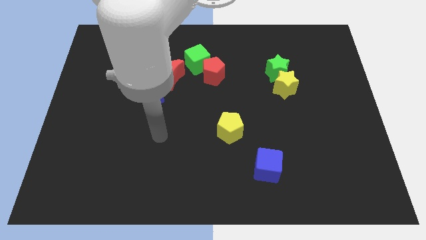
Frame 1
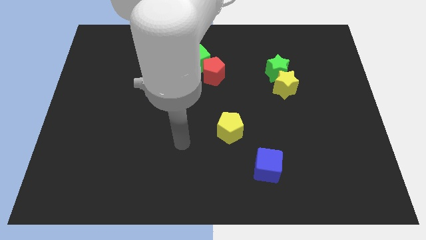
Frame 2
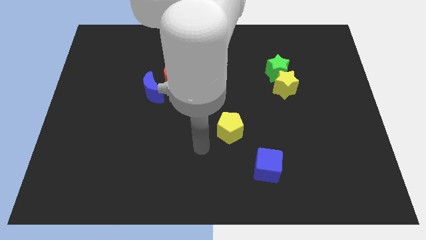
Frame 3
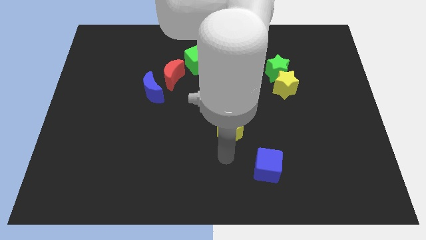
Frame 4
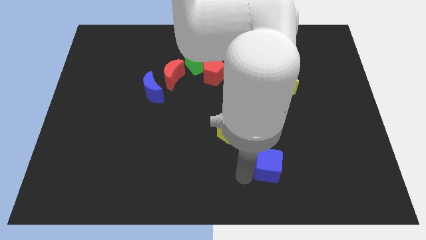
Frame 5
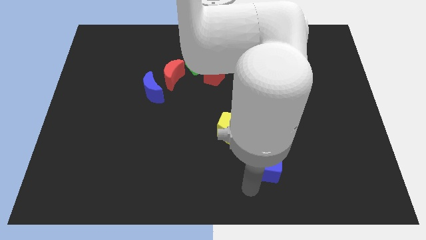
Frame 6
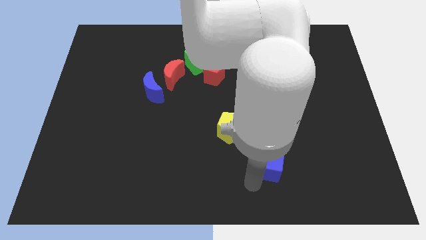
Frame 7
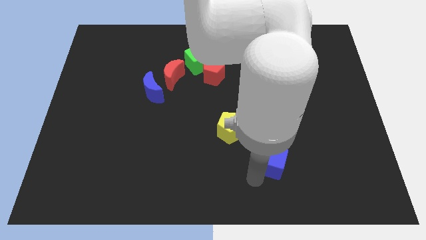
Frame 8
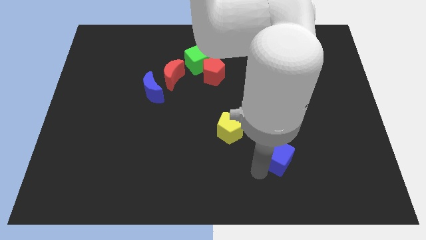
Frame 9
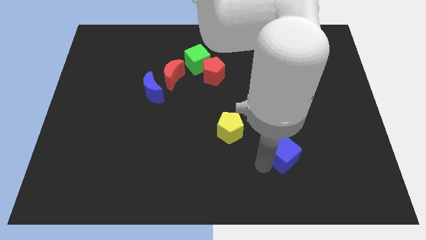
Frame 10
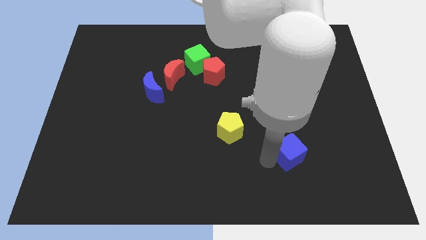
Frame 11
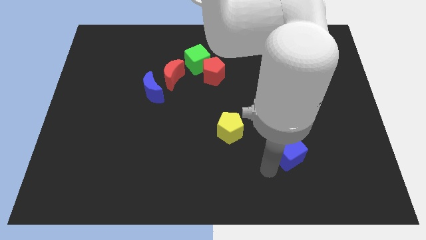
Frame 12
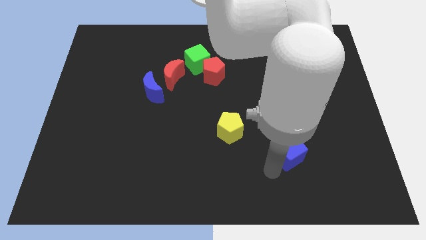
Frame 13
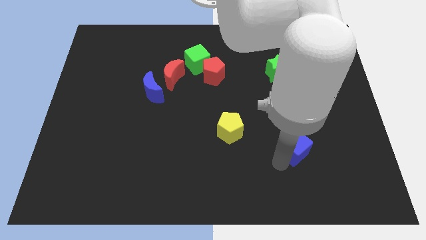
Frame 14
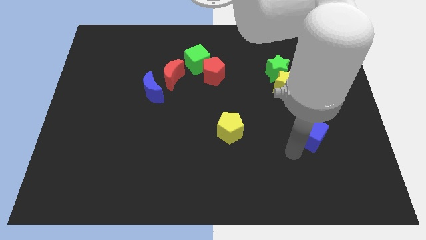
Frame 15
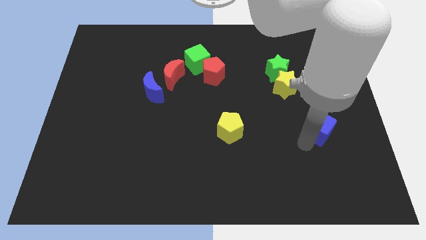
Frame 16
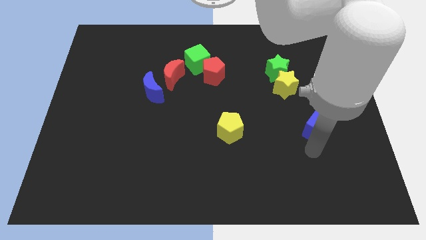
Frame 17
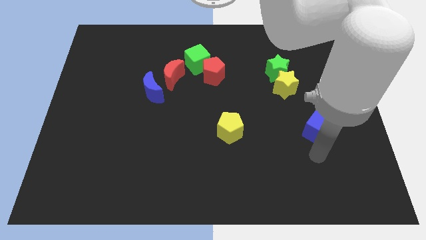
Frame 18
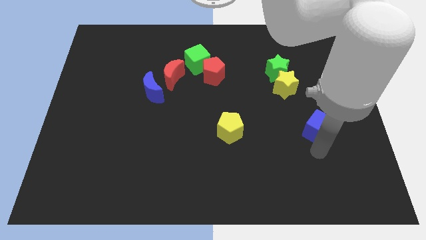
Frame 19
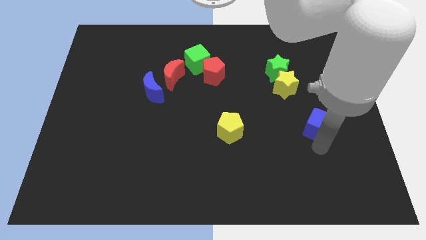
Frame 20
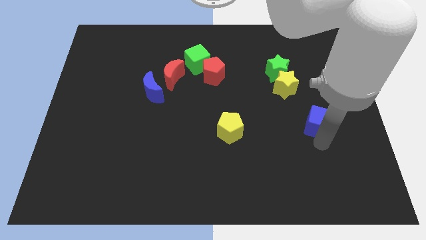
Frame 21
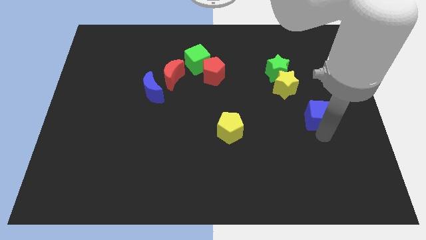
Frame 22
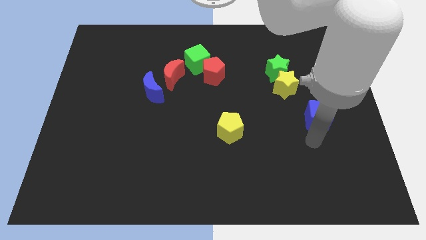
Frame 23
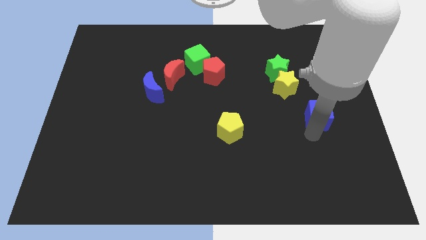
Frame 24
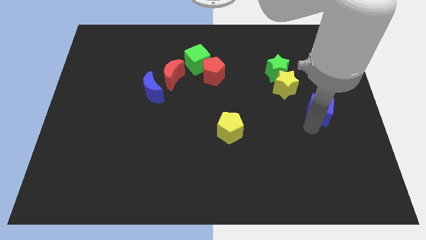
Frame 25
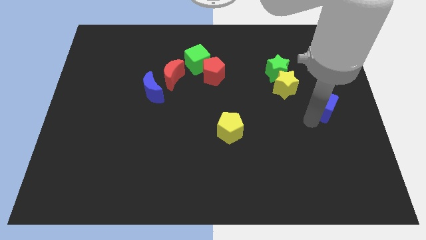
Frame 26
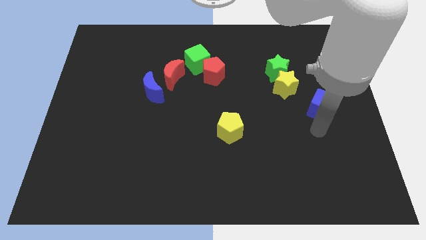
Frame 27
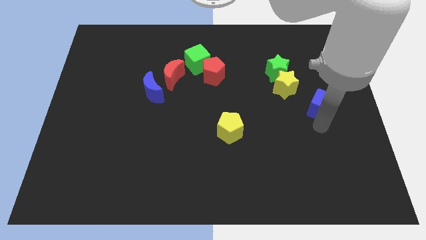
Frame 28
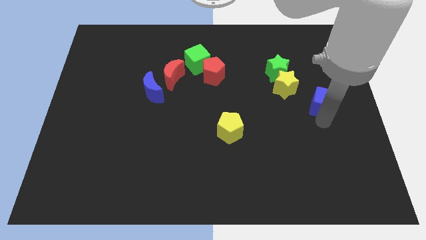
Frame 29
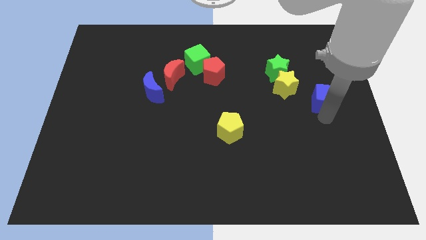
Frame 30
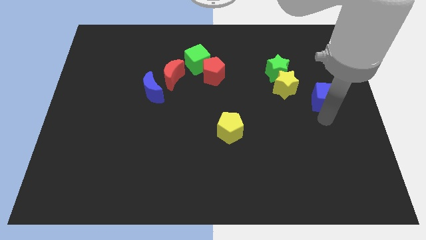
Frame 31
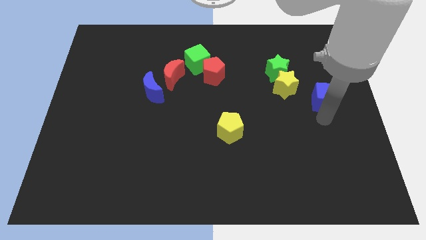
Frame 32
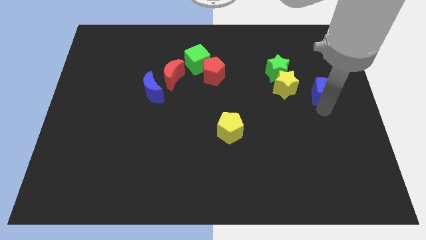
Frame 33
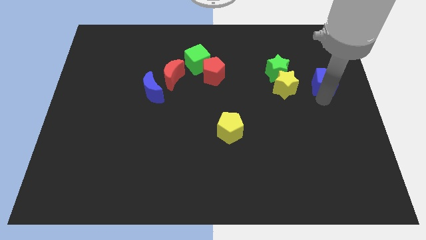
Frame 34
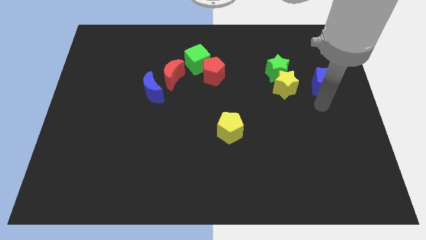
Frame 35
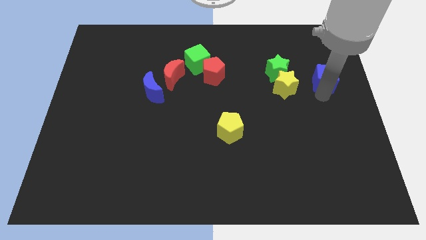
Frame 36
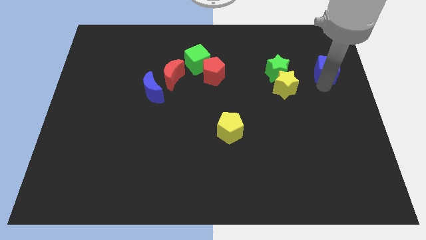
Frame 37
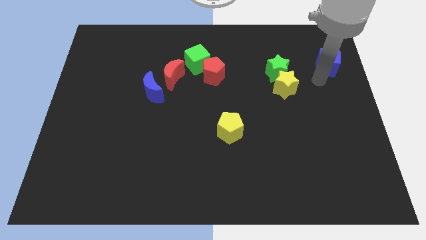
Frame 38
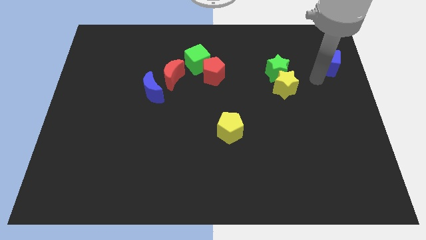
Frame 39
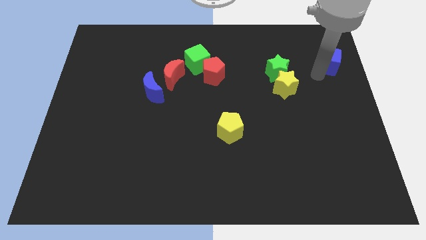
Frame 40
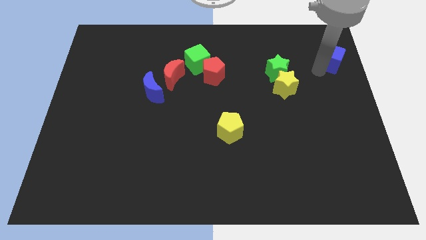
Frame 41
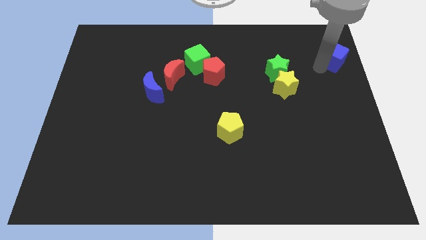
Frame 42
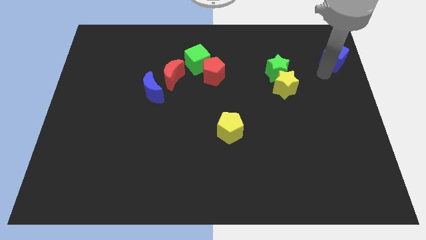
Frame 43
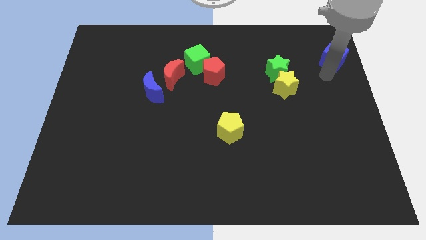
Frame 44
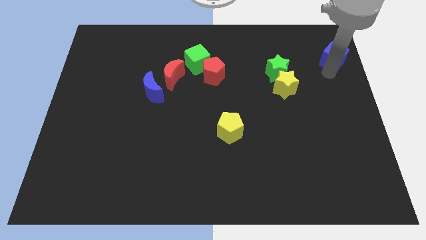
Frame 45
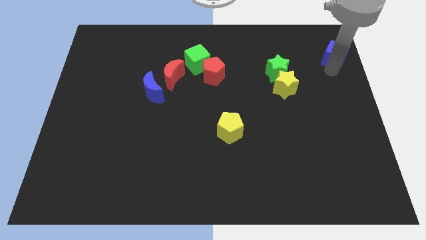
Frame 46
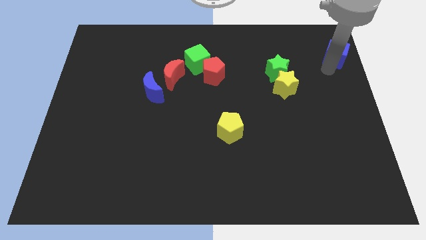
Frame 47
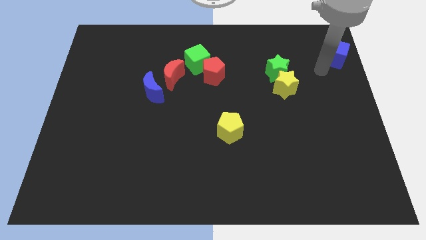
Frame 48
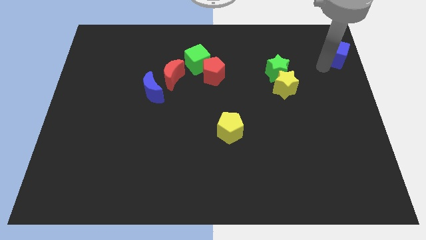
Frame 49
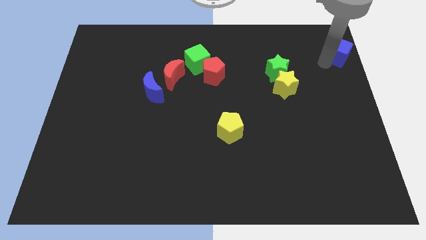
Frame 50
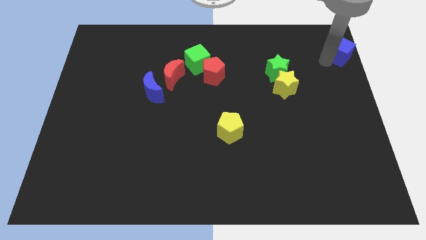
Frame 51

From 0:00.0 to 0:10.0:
slide the blue cube to the upper right corner

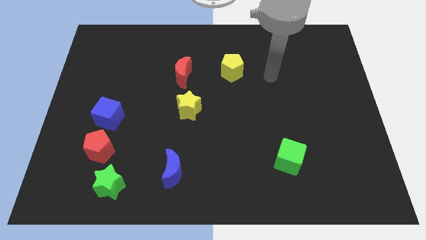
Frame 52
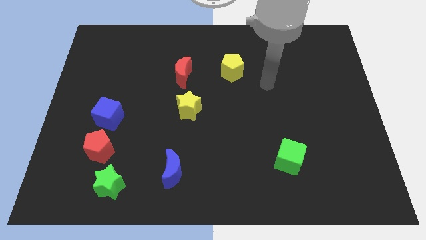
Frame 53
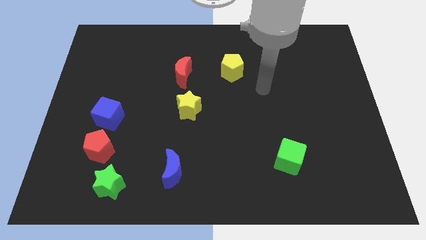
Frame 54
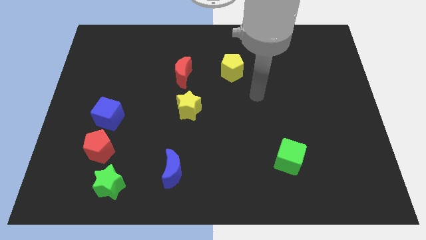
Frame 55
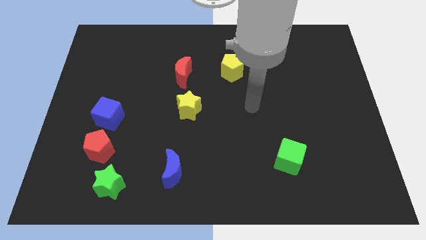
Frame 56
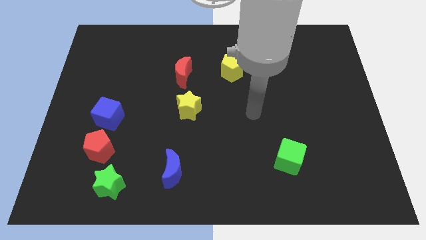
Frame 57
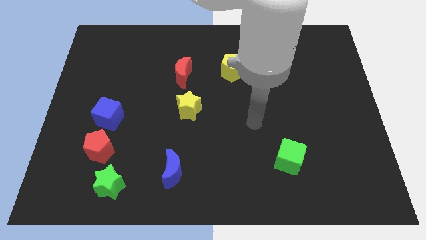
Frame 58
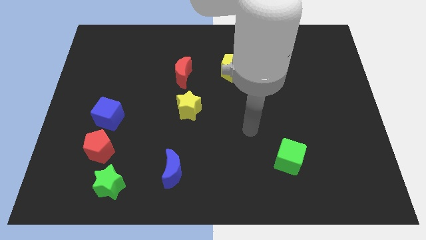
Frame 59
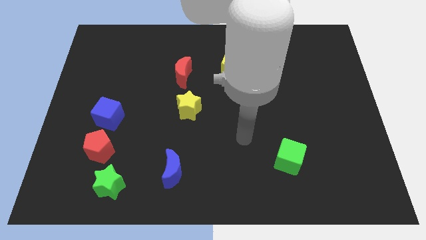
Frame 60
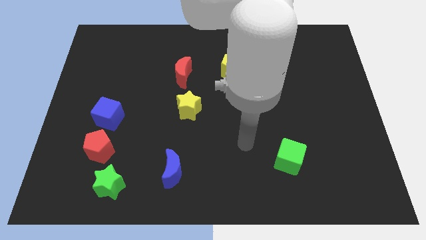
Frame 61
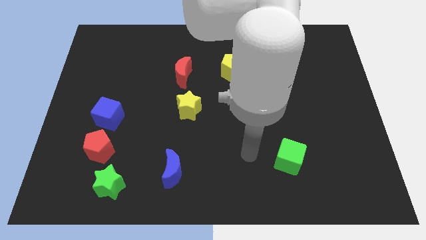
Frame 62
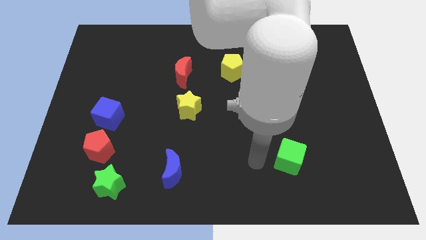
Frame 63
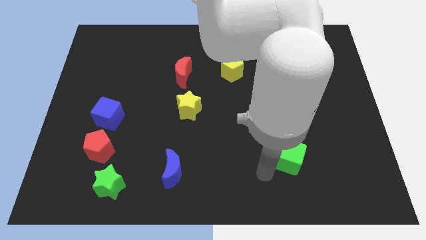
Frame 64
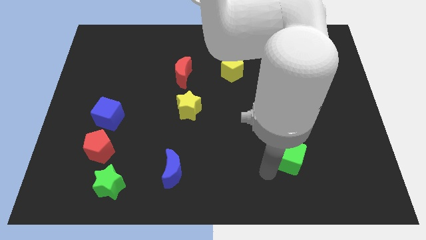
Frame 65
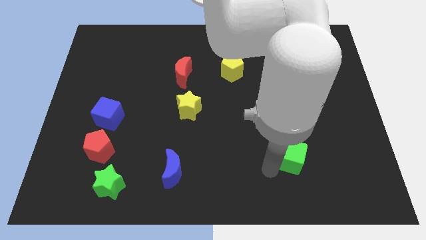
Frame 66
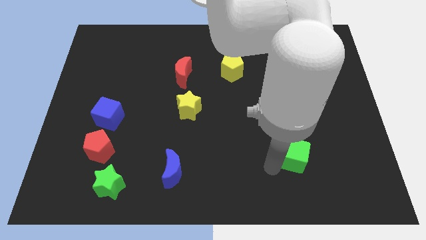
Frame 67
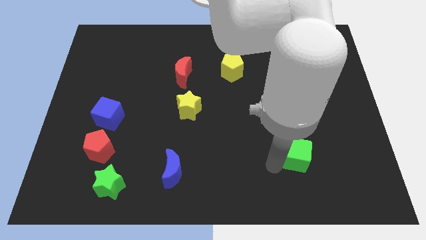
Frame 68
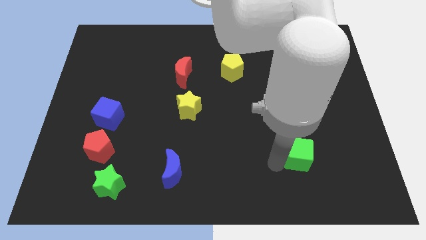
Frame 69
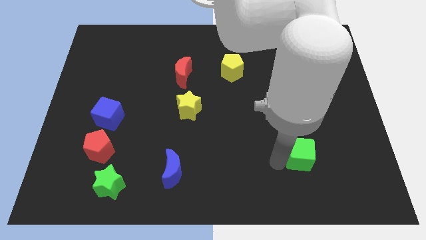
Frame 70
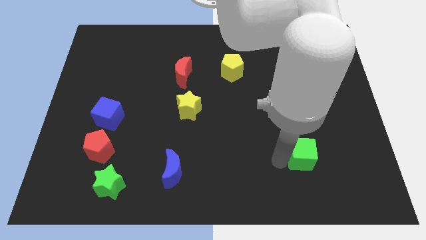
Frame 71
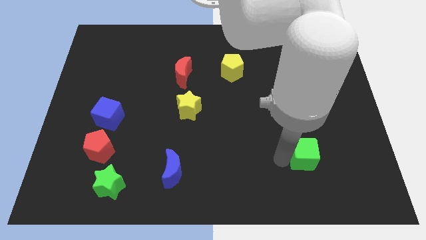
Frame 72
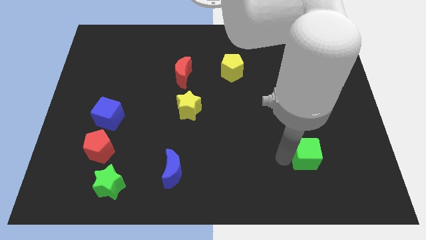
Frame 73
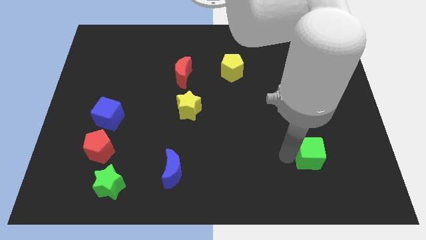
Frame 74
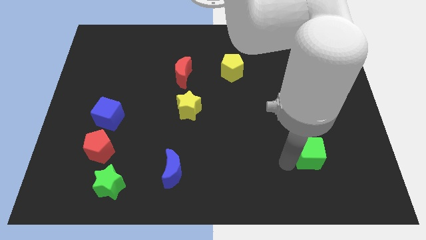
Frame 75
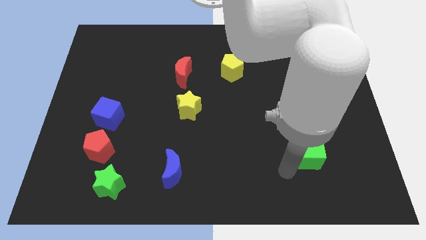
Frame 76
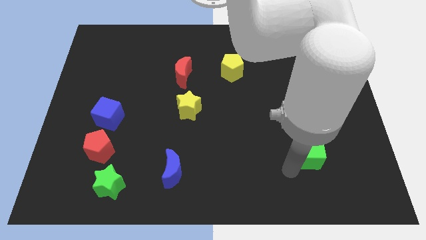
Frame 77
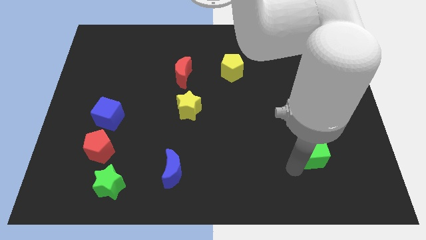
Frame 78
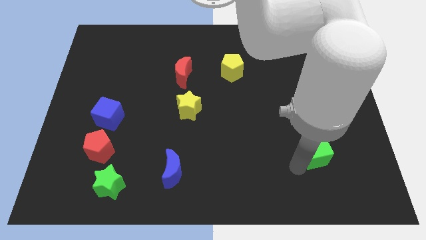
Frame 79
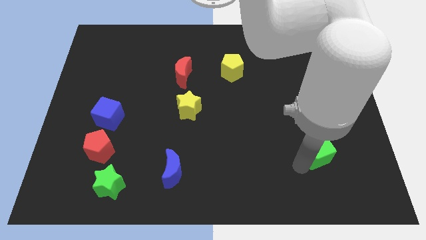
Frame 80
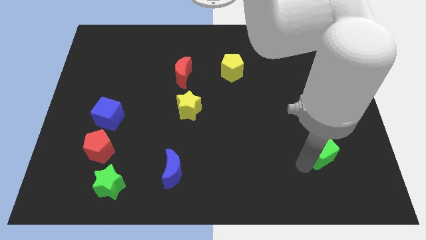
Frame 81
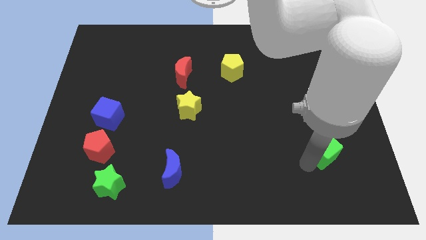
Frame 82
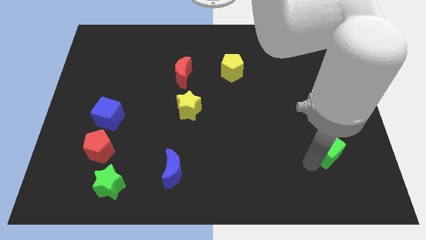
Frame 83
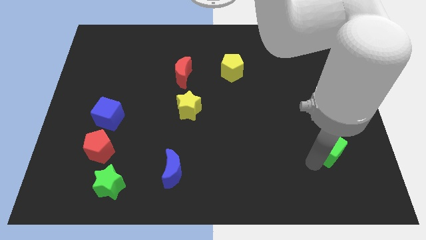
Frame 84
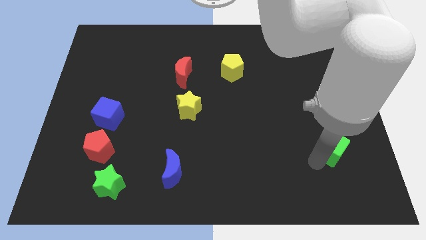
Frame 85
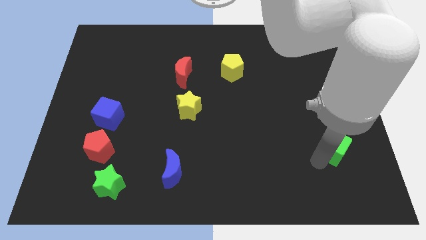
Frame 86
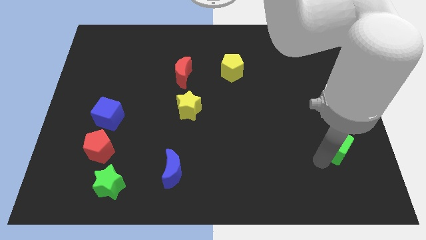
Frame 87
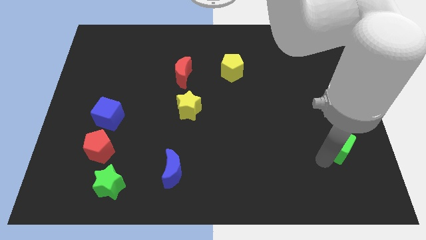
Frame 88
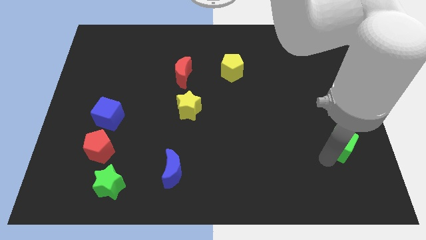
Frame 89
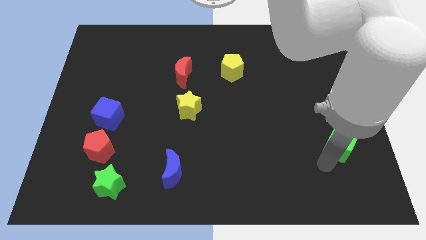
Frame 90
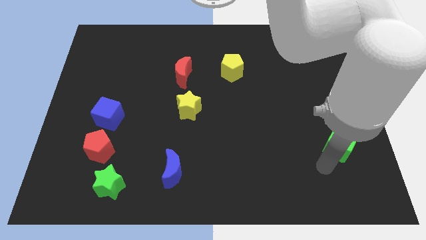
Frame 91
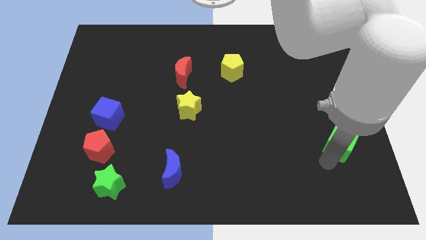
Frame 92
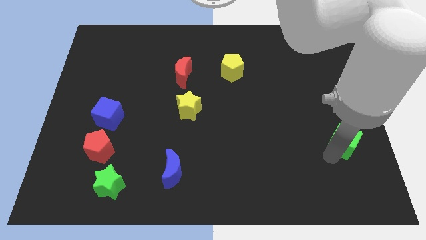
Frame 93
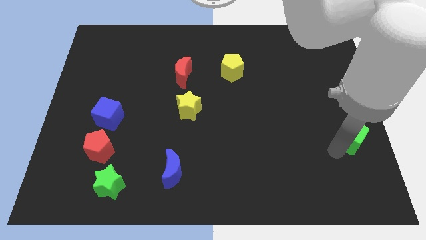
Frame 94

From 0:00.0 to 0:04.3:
put the green cube to the right side of the board
